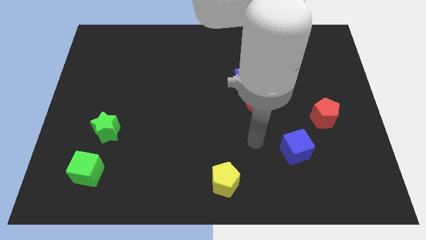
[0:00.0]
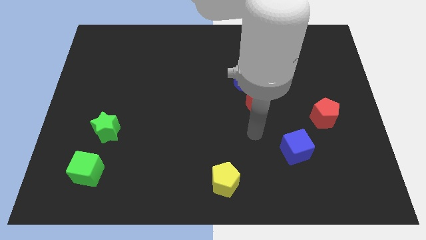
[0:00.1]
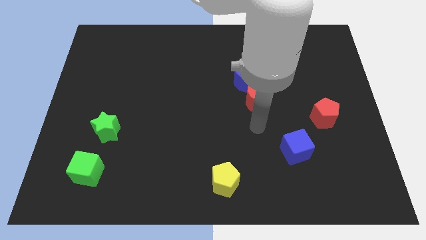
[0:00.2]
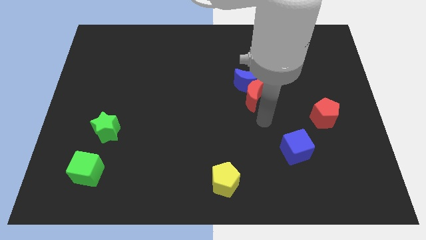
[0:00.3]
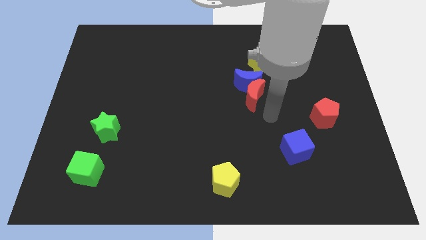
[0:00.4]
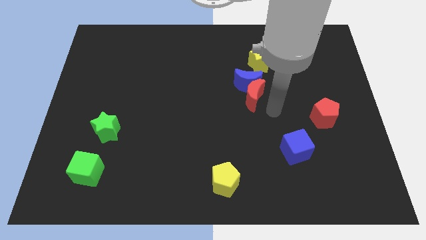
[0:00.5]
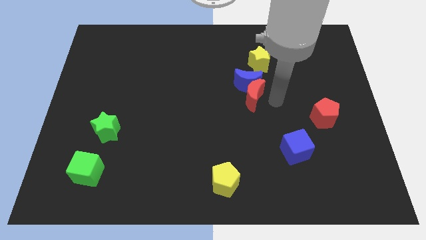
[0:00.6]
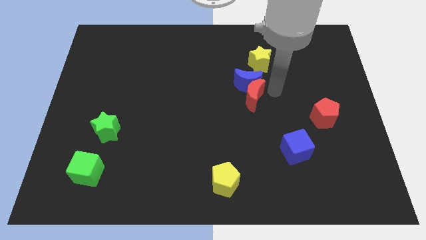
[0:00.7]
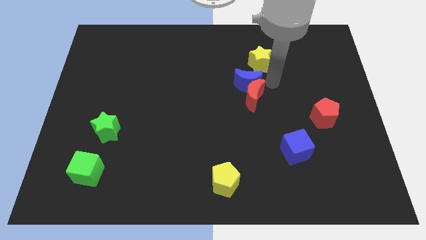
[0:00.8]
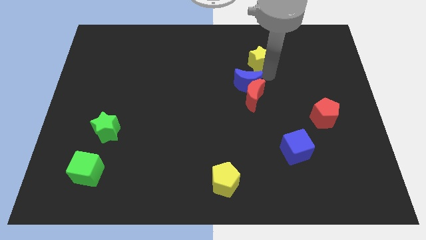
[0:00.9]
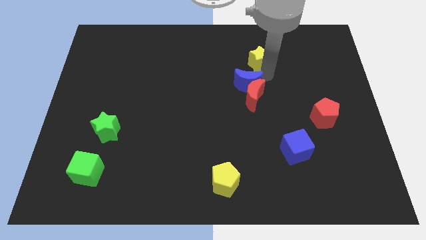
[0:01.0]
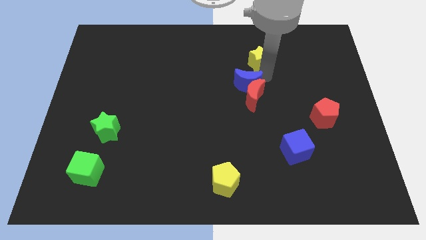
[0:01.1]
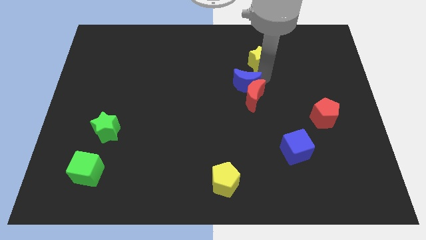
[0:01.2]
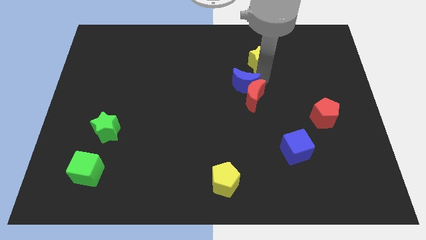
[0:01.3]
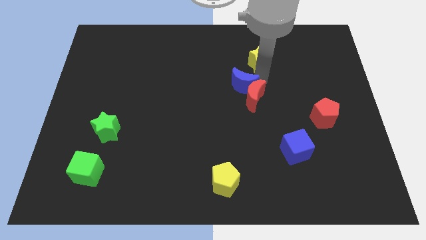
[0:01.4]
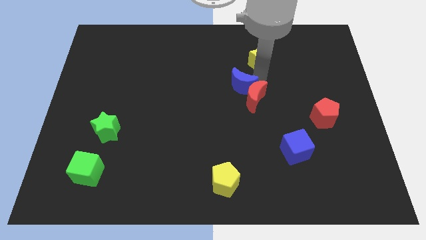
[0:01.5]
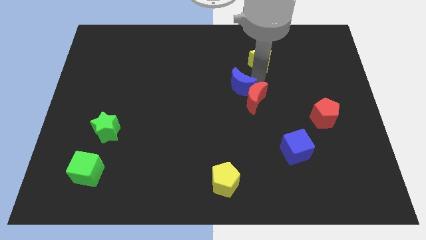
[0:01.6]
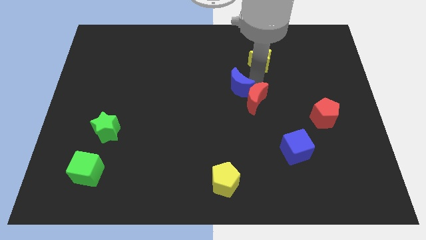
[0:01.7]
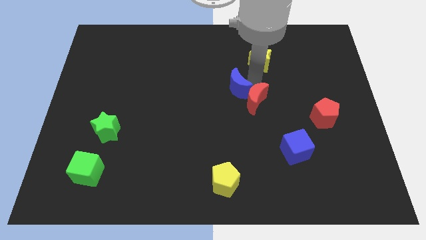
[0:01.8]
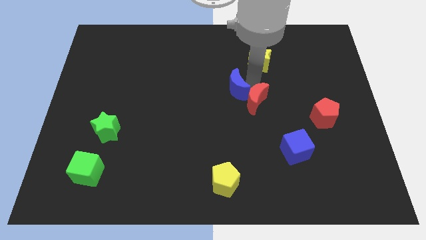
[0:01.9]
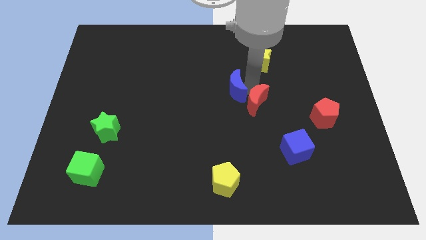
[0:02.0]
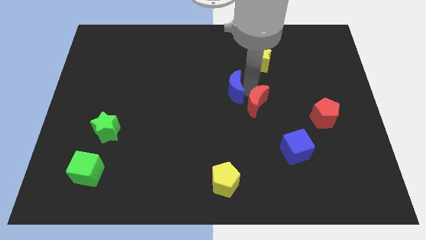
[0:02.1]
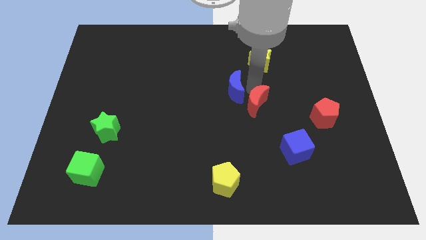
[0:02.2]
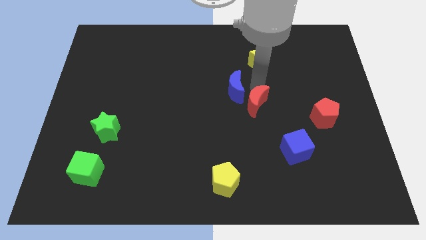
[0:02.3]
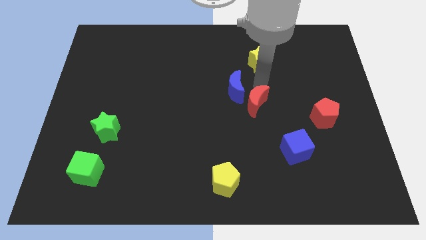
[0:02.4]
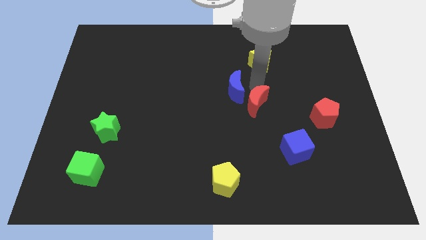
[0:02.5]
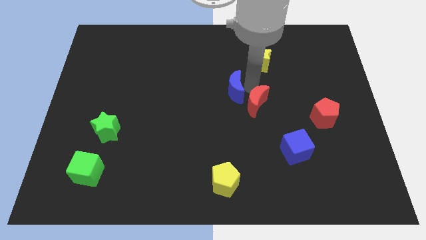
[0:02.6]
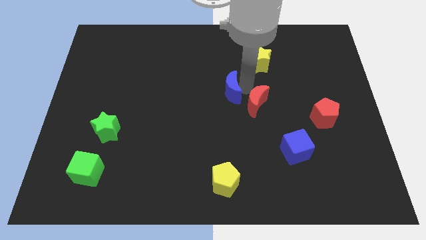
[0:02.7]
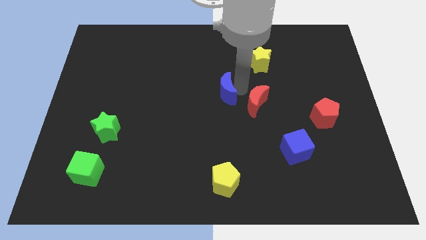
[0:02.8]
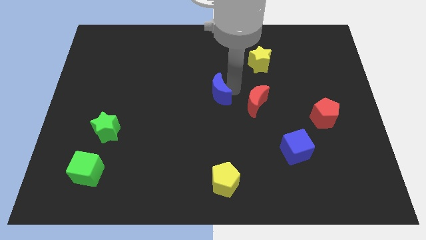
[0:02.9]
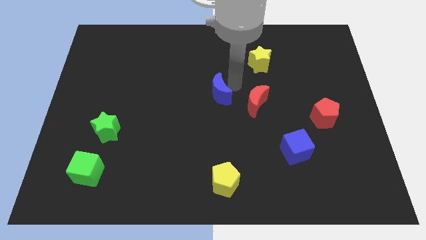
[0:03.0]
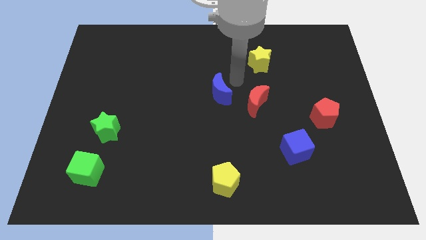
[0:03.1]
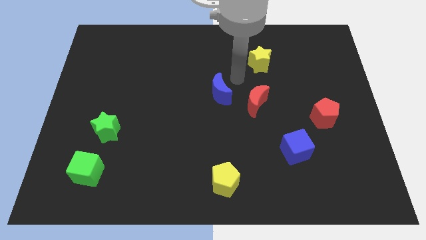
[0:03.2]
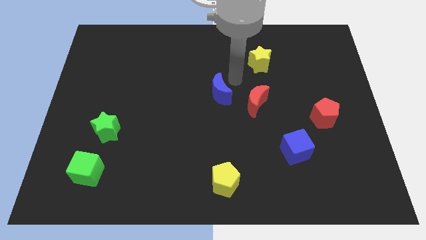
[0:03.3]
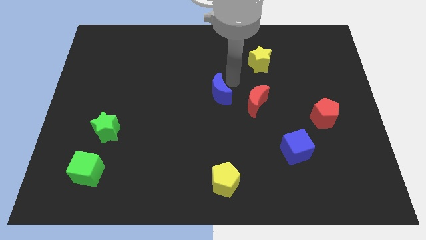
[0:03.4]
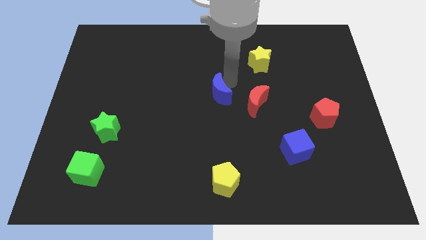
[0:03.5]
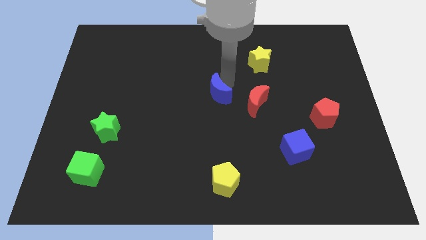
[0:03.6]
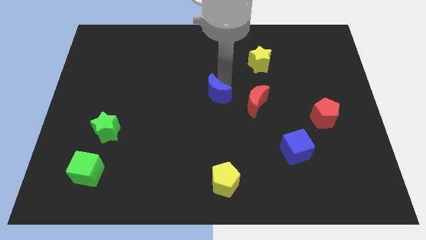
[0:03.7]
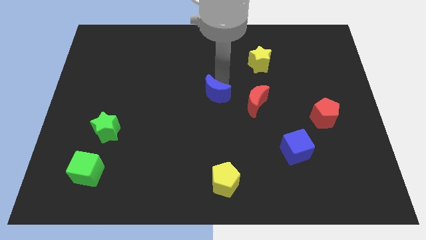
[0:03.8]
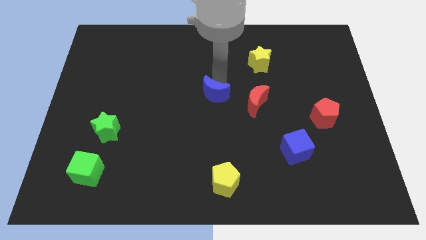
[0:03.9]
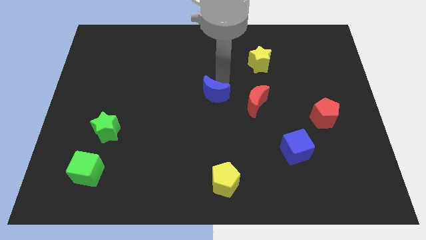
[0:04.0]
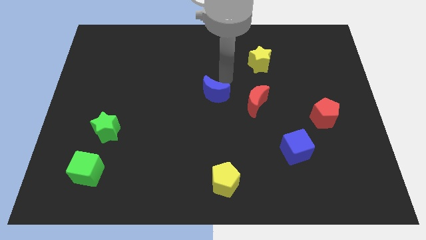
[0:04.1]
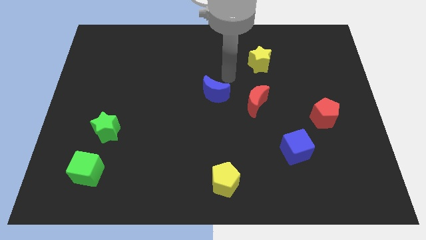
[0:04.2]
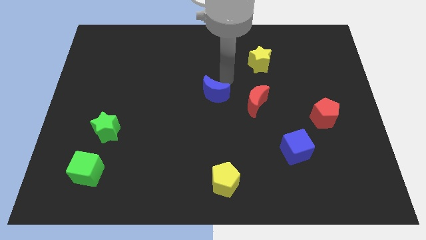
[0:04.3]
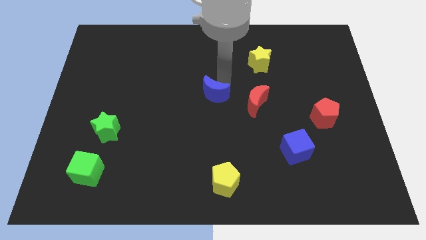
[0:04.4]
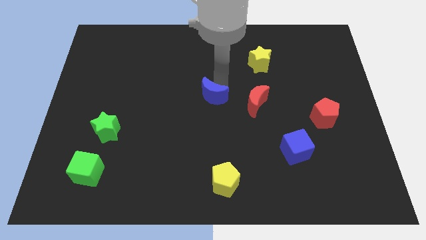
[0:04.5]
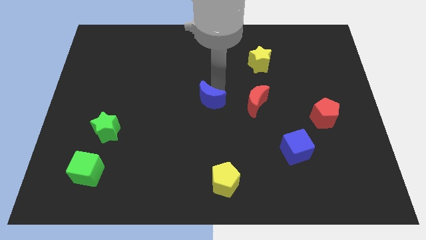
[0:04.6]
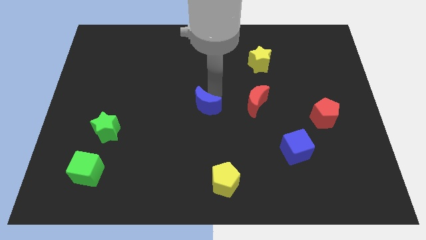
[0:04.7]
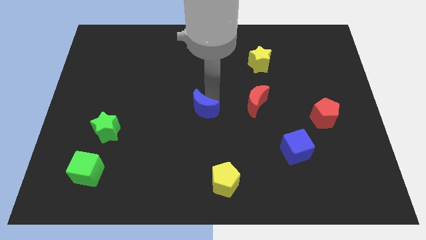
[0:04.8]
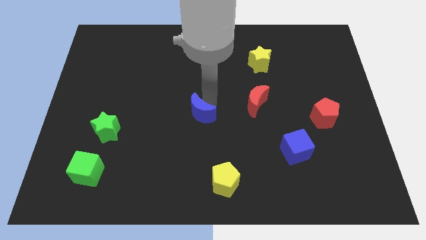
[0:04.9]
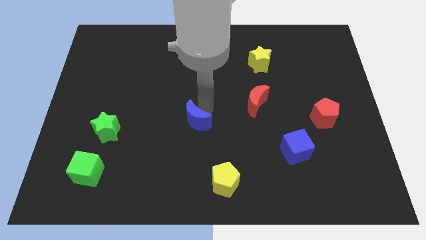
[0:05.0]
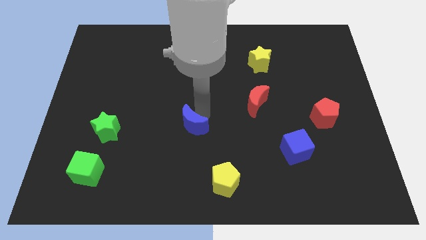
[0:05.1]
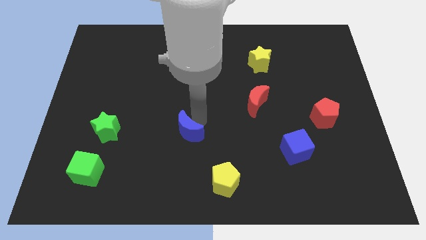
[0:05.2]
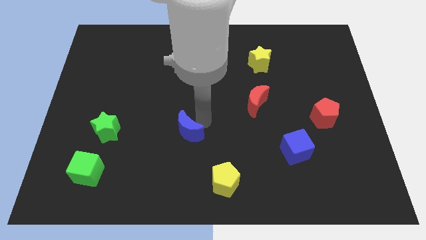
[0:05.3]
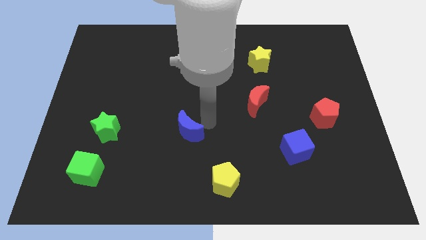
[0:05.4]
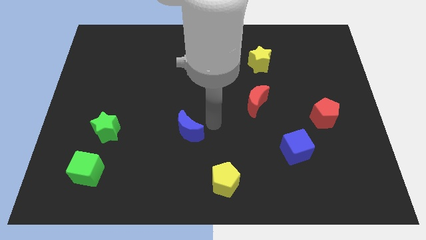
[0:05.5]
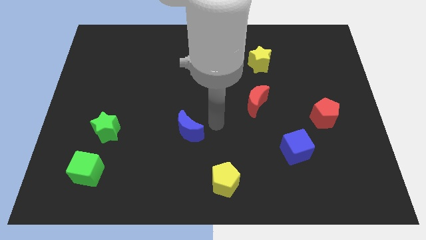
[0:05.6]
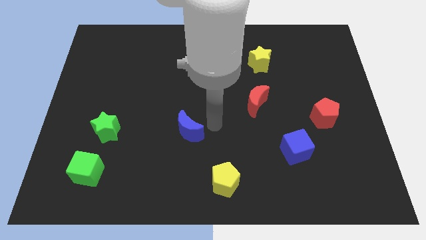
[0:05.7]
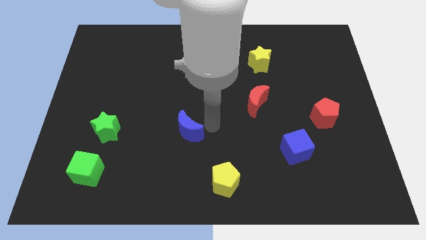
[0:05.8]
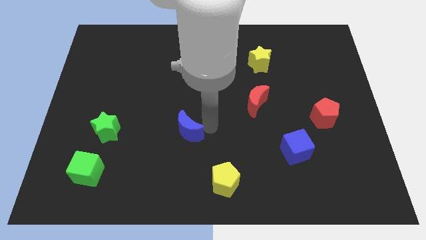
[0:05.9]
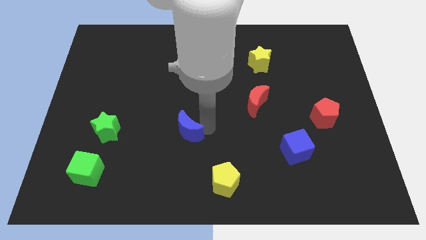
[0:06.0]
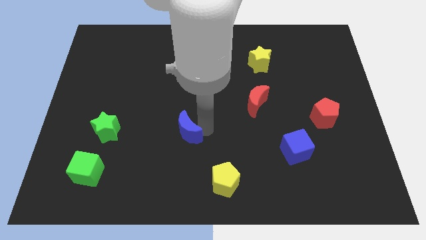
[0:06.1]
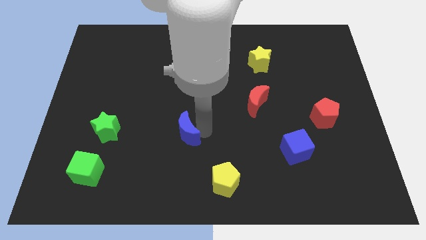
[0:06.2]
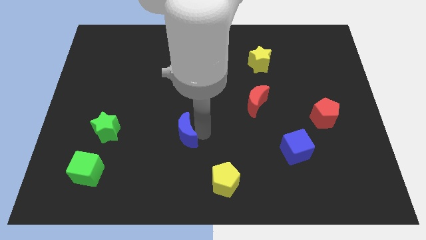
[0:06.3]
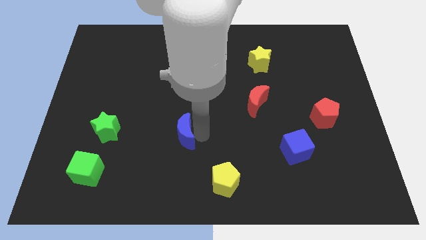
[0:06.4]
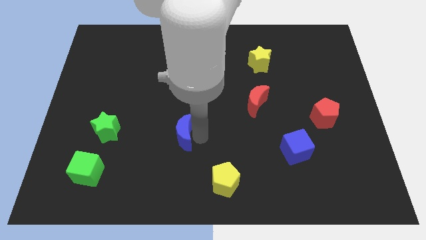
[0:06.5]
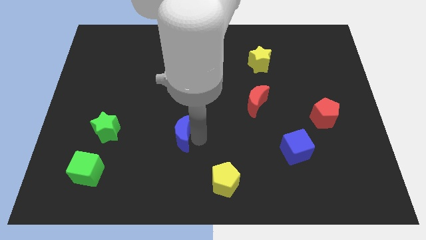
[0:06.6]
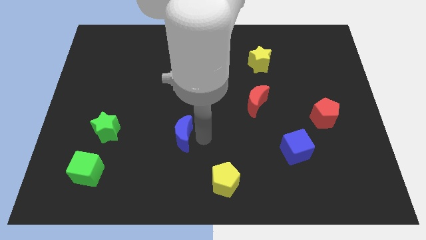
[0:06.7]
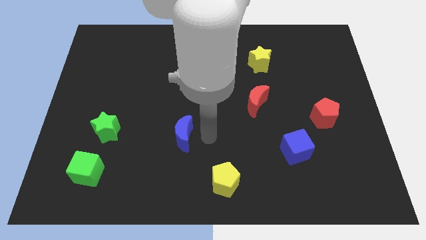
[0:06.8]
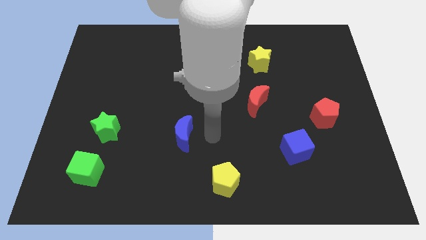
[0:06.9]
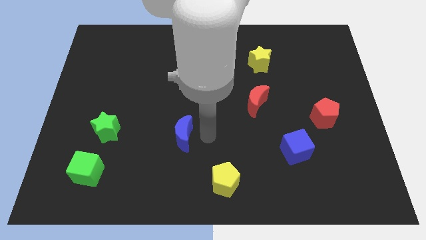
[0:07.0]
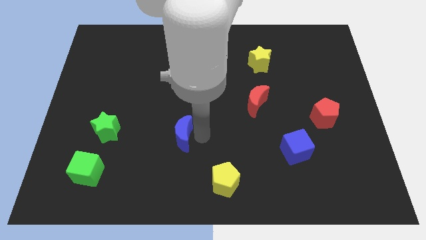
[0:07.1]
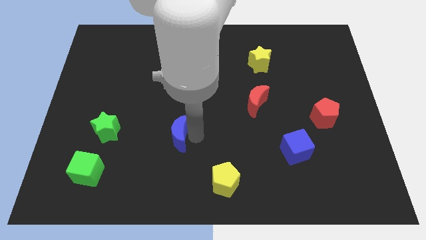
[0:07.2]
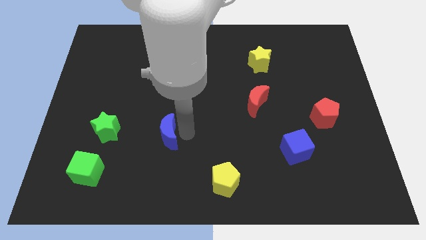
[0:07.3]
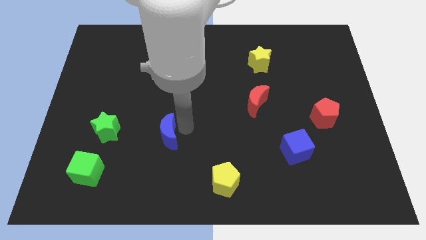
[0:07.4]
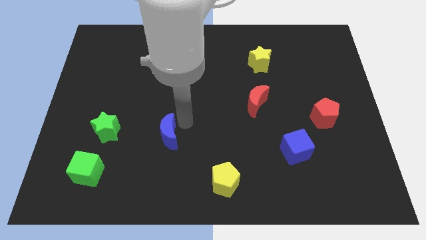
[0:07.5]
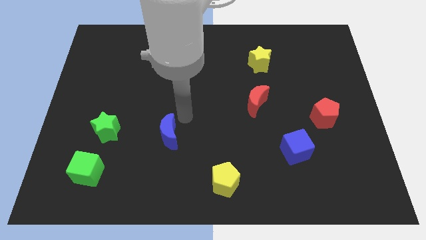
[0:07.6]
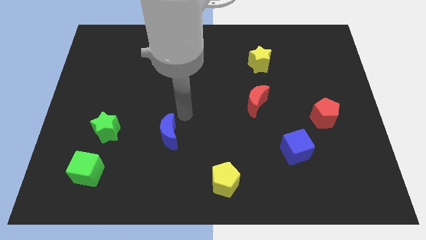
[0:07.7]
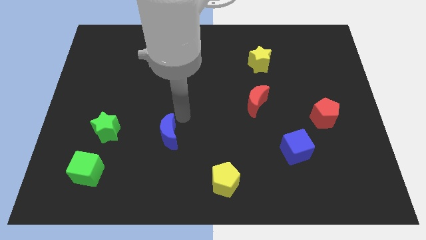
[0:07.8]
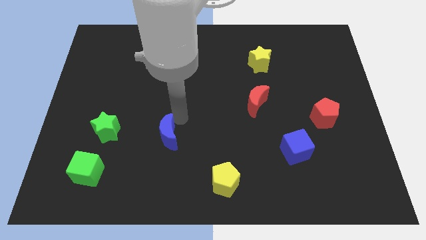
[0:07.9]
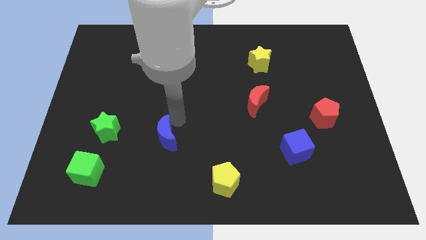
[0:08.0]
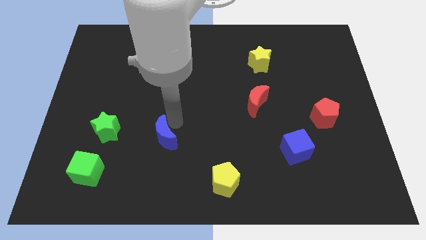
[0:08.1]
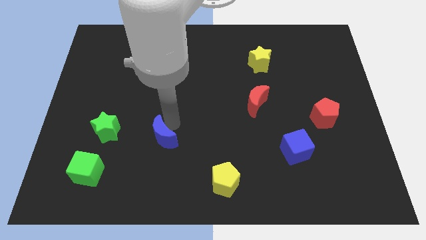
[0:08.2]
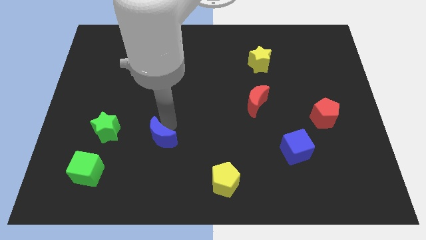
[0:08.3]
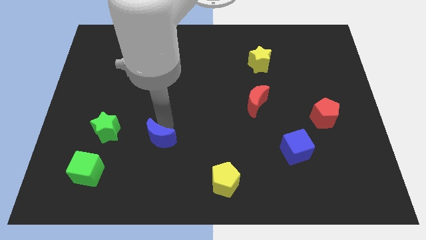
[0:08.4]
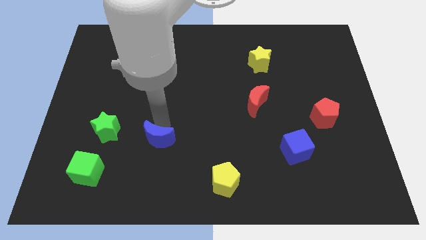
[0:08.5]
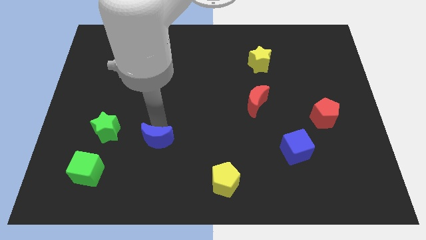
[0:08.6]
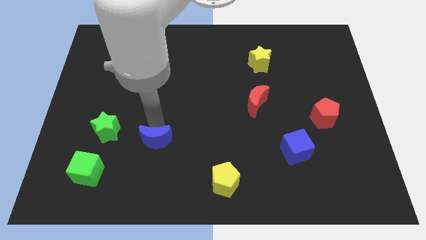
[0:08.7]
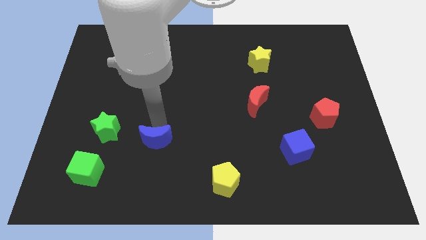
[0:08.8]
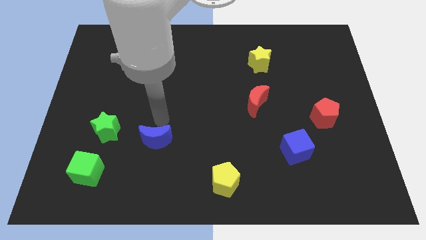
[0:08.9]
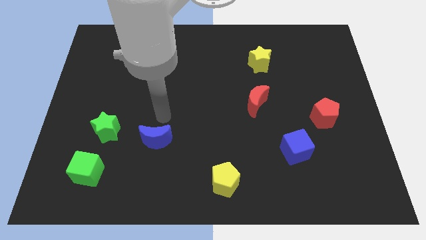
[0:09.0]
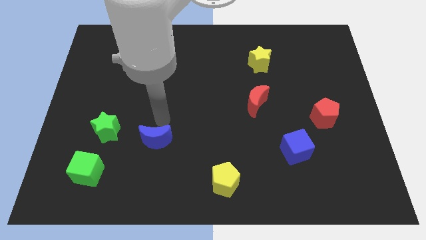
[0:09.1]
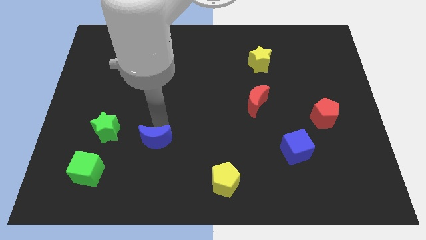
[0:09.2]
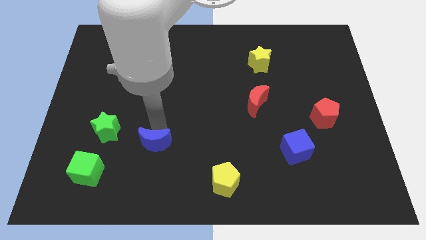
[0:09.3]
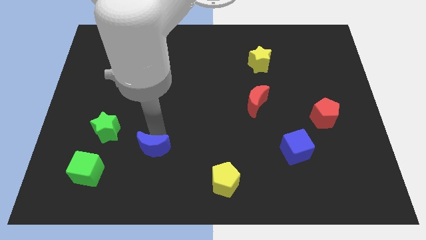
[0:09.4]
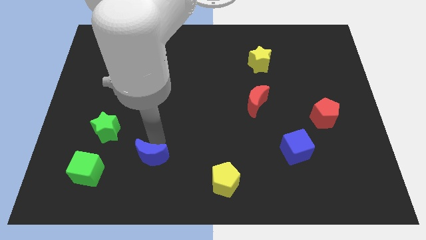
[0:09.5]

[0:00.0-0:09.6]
put the blue moon just right of the green cube
